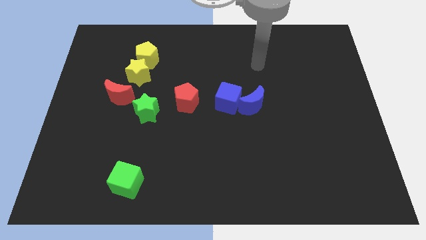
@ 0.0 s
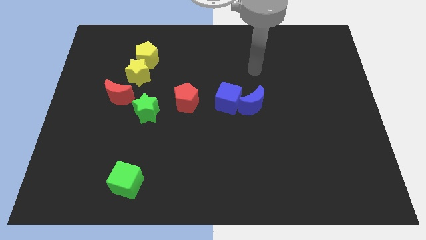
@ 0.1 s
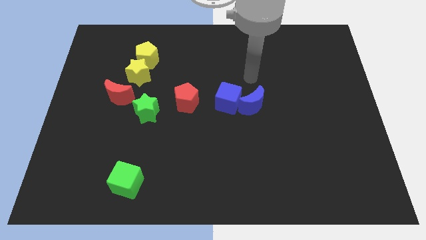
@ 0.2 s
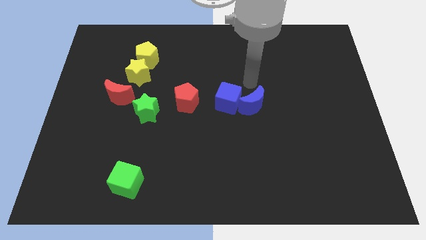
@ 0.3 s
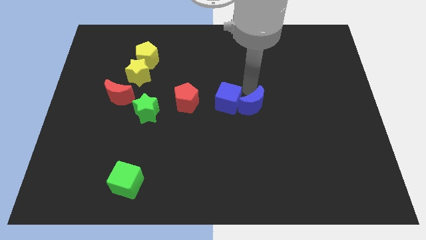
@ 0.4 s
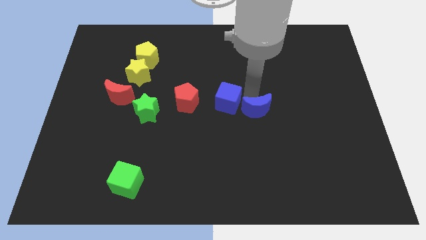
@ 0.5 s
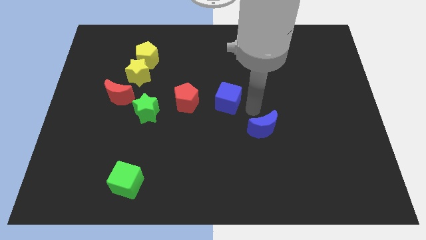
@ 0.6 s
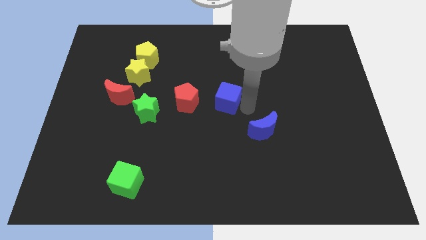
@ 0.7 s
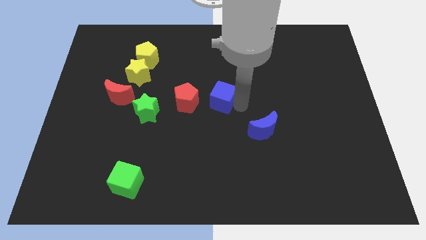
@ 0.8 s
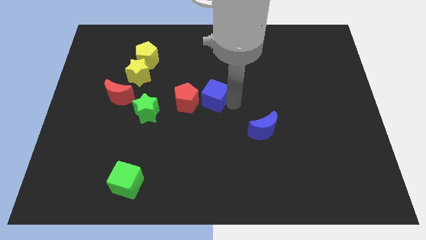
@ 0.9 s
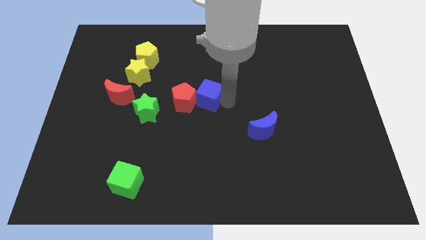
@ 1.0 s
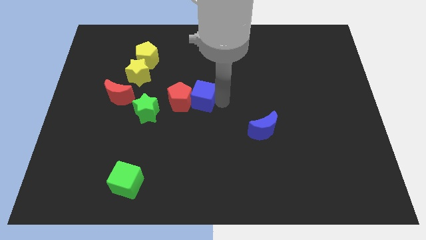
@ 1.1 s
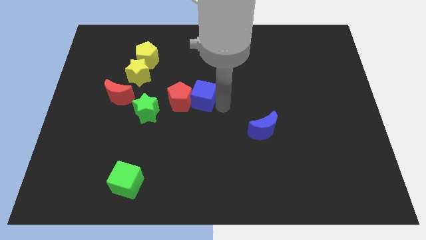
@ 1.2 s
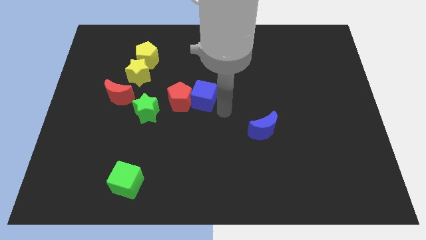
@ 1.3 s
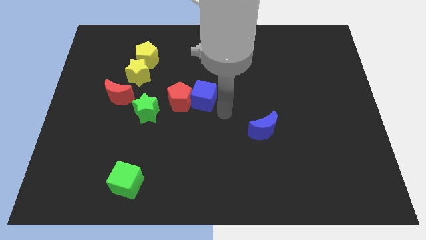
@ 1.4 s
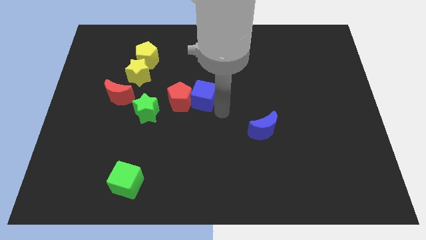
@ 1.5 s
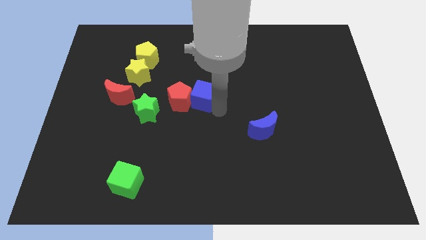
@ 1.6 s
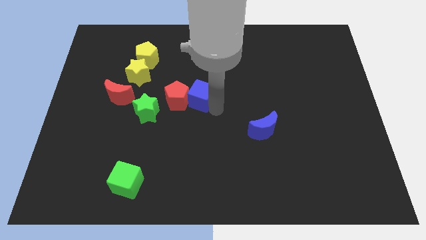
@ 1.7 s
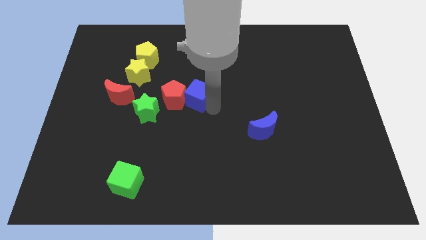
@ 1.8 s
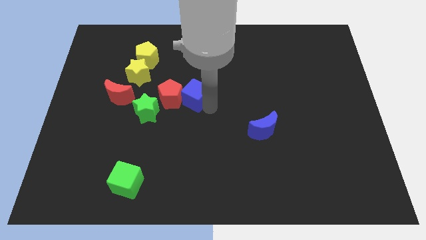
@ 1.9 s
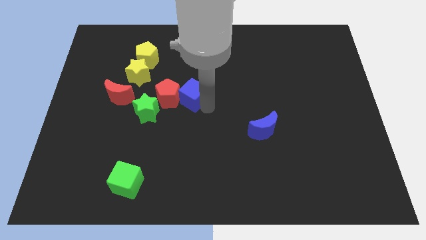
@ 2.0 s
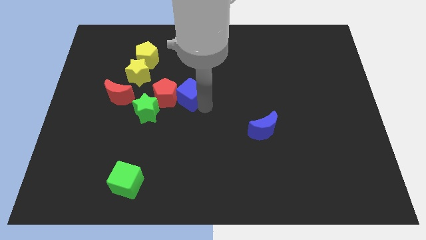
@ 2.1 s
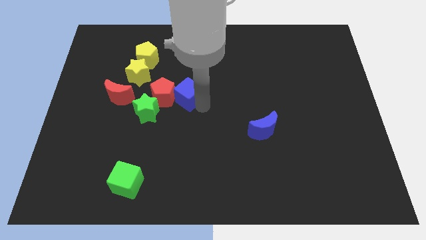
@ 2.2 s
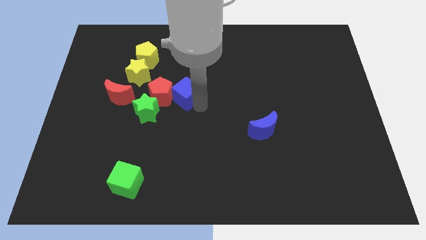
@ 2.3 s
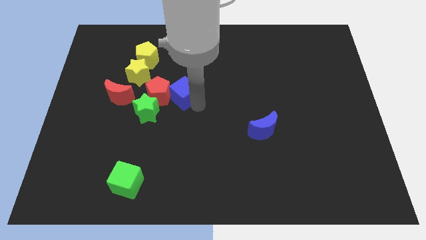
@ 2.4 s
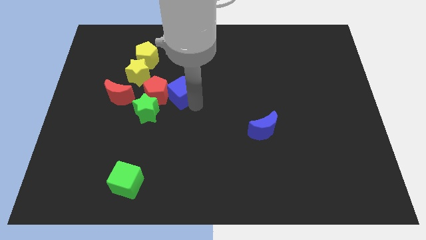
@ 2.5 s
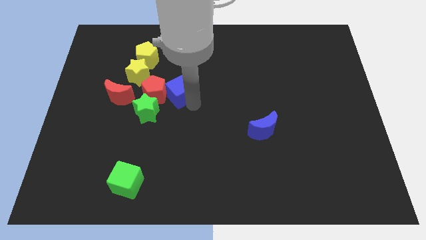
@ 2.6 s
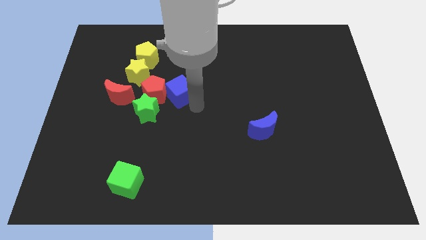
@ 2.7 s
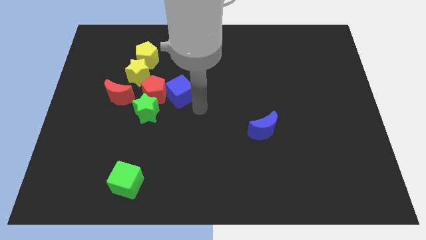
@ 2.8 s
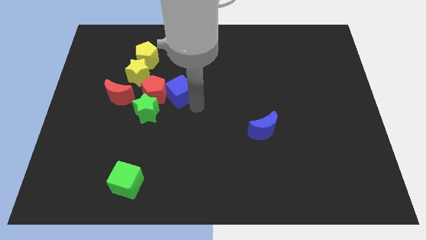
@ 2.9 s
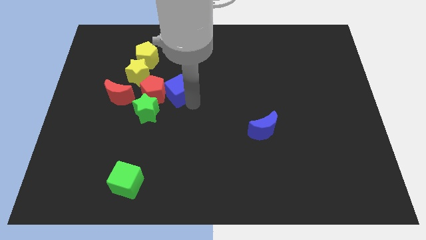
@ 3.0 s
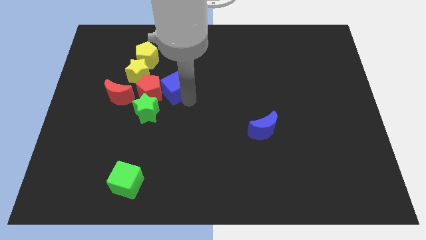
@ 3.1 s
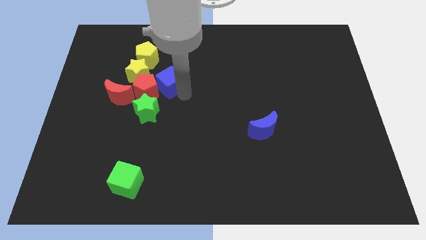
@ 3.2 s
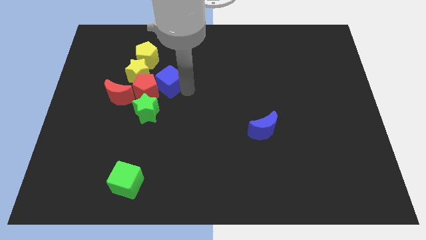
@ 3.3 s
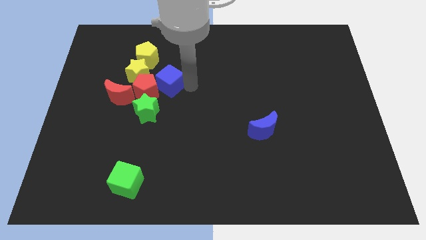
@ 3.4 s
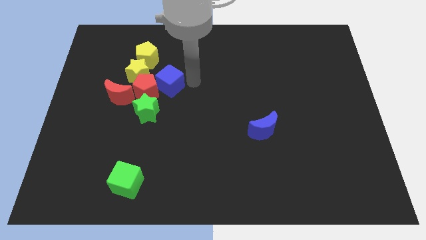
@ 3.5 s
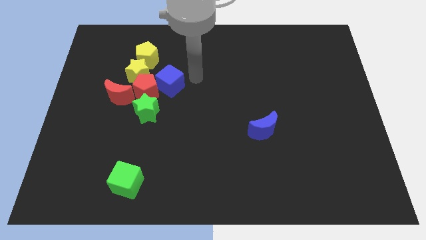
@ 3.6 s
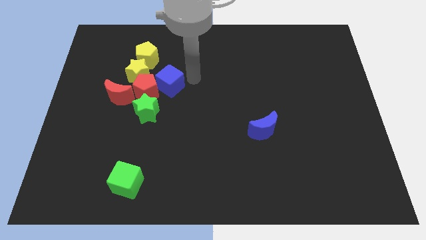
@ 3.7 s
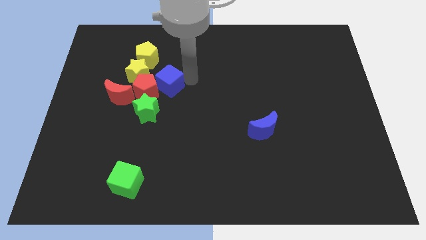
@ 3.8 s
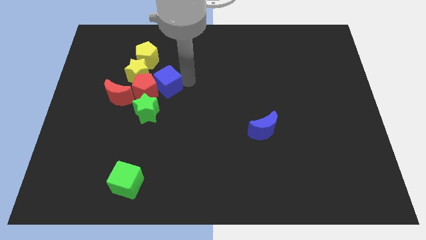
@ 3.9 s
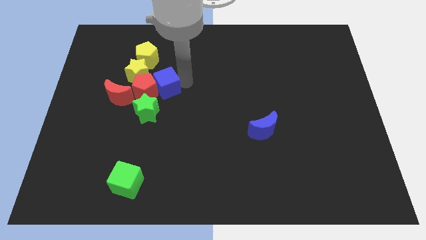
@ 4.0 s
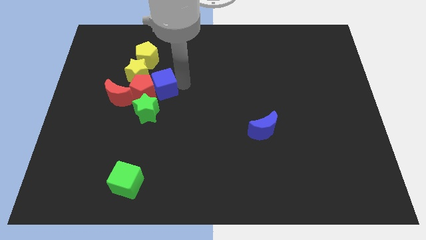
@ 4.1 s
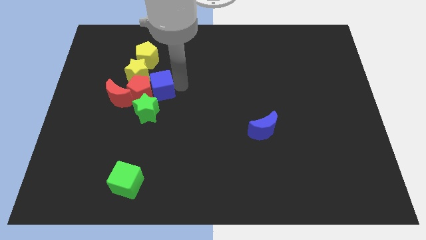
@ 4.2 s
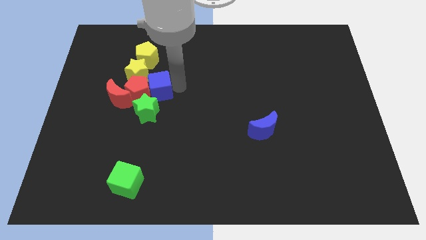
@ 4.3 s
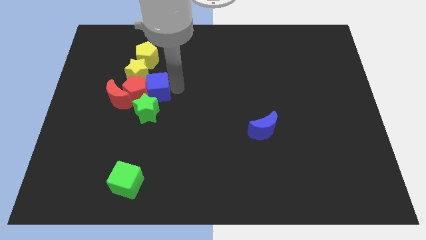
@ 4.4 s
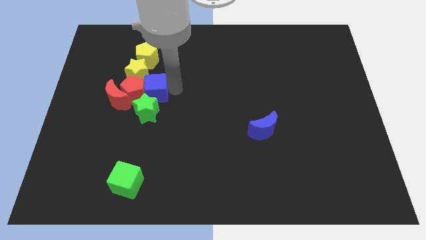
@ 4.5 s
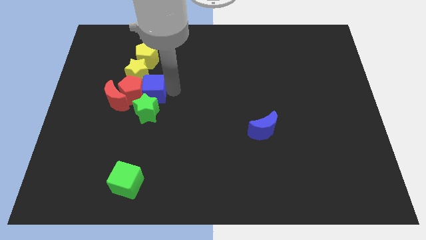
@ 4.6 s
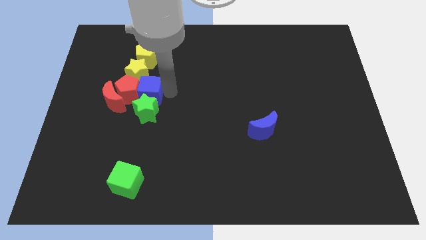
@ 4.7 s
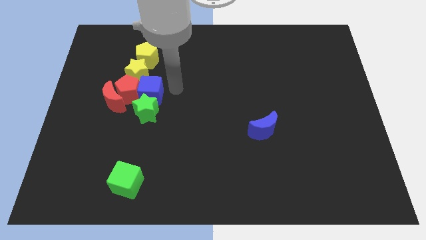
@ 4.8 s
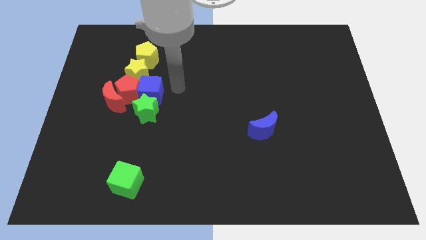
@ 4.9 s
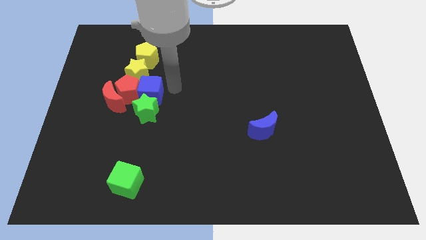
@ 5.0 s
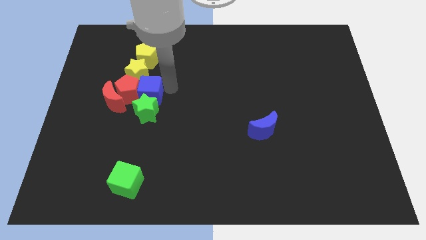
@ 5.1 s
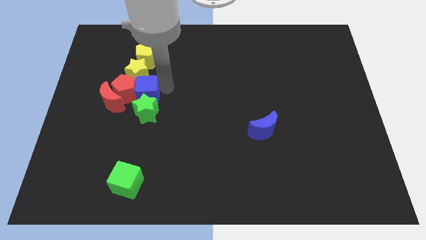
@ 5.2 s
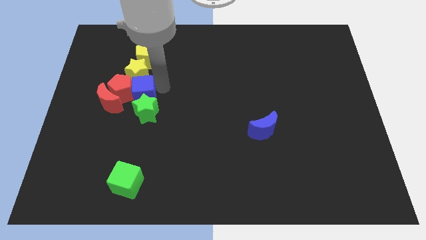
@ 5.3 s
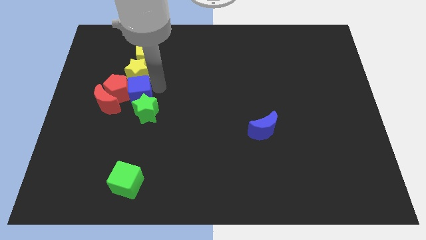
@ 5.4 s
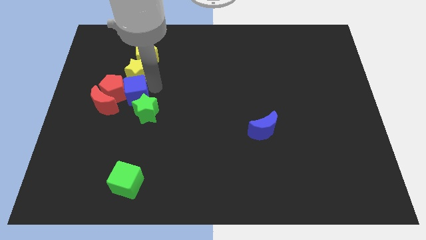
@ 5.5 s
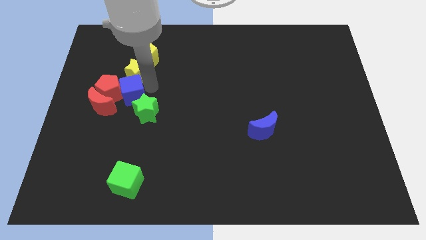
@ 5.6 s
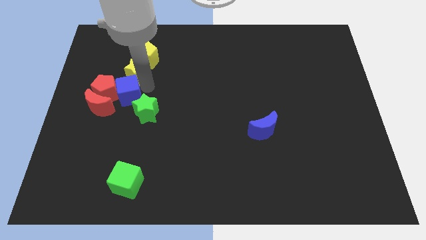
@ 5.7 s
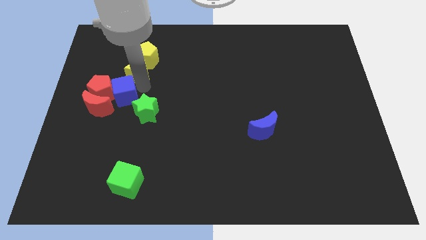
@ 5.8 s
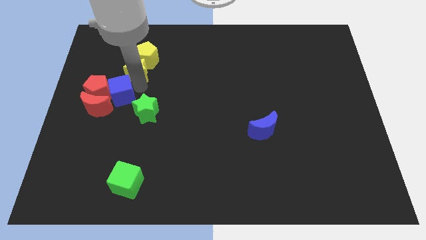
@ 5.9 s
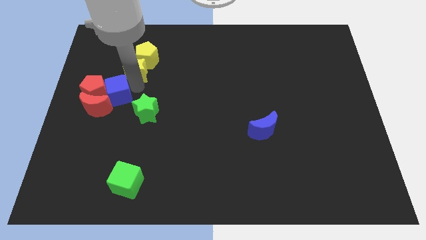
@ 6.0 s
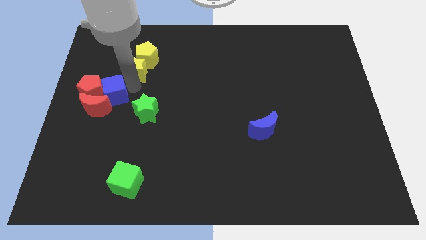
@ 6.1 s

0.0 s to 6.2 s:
put the blue cube next to the red moon

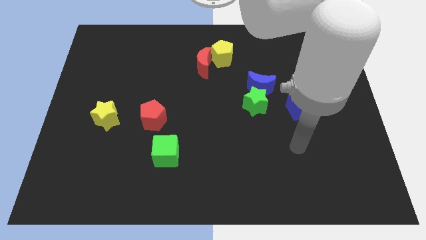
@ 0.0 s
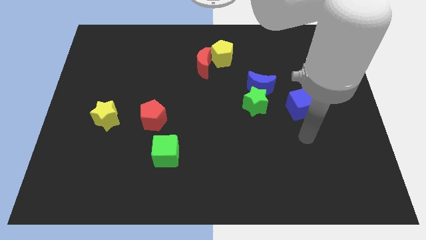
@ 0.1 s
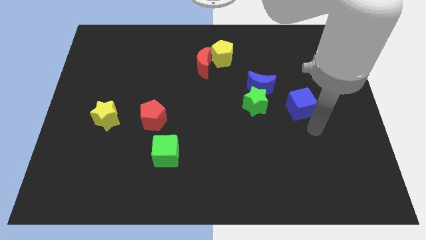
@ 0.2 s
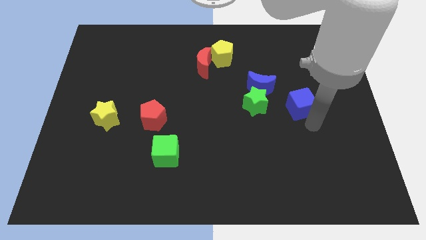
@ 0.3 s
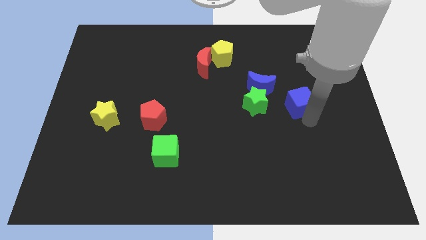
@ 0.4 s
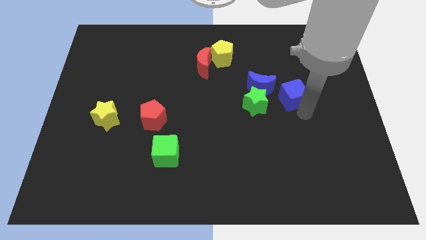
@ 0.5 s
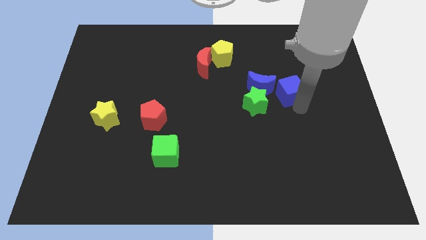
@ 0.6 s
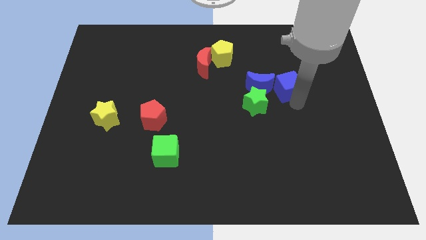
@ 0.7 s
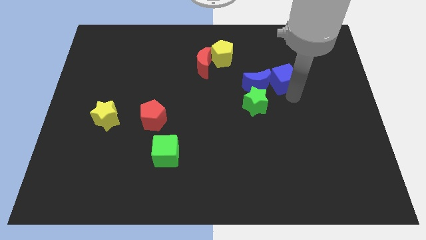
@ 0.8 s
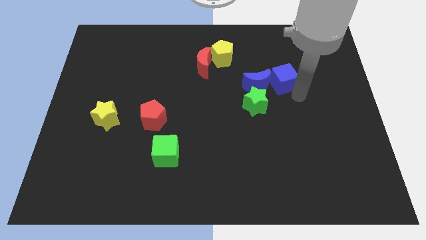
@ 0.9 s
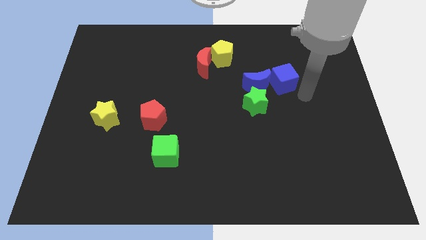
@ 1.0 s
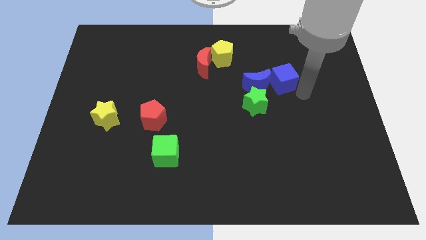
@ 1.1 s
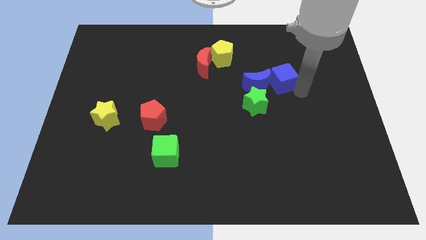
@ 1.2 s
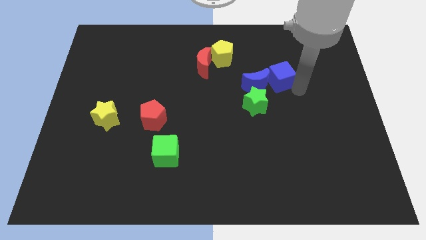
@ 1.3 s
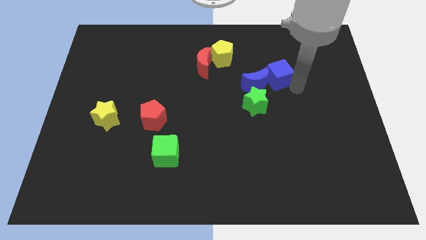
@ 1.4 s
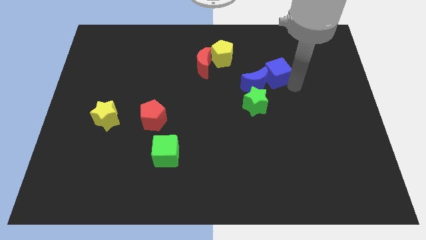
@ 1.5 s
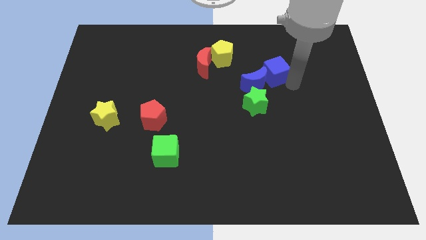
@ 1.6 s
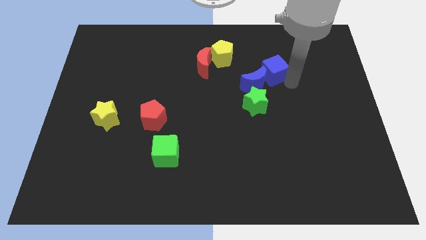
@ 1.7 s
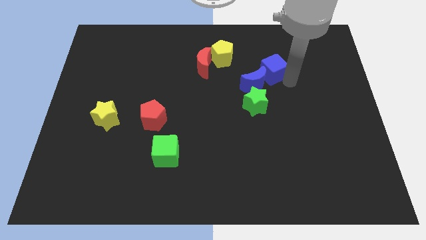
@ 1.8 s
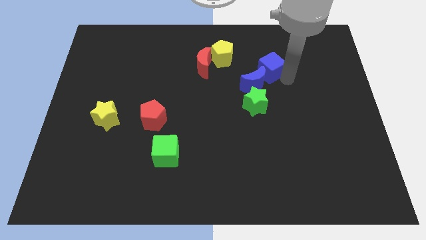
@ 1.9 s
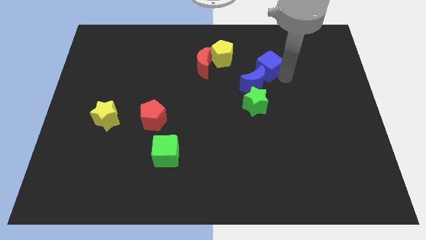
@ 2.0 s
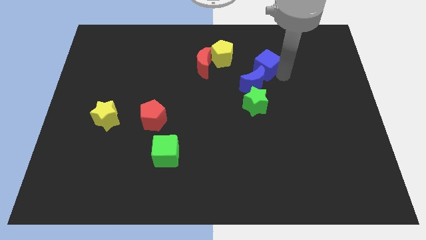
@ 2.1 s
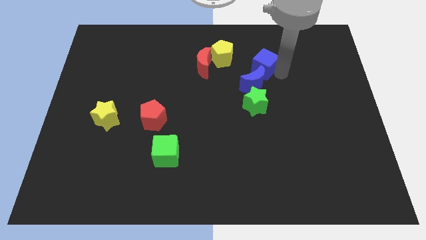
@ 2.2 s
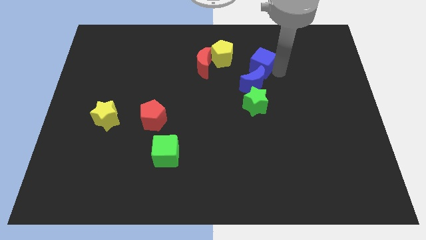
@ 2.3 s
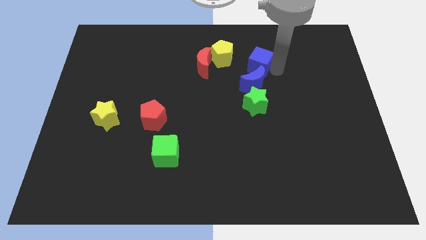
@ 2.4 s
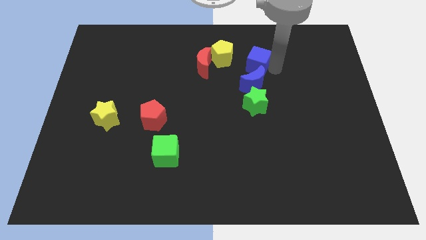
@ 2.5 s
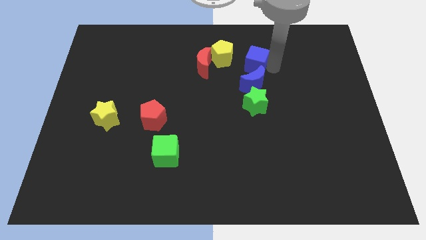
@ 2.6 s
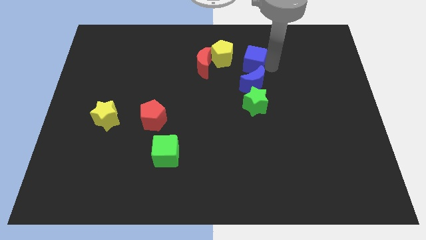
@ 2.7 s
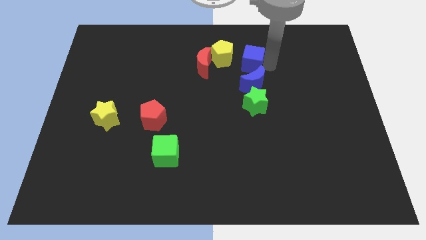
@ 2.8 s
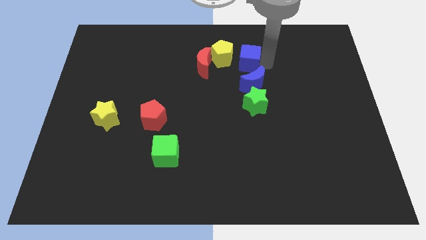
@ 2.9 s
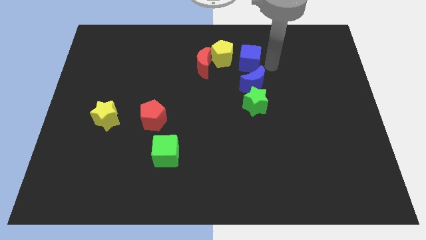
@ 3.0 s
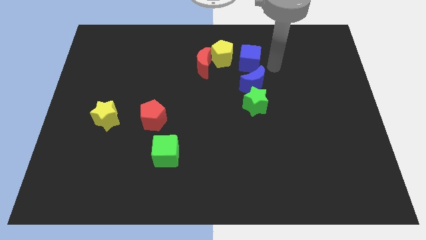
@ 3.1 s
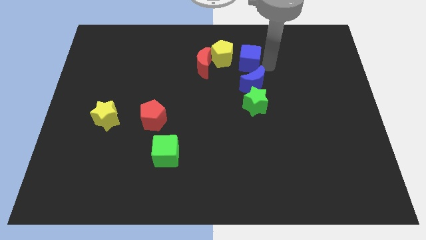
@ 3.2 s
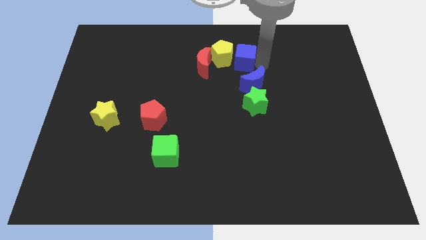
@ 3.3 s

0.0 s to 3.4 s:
put the blue cube to the yellow pentagon
